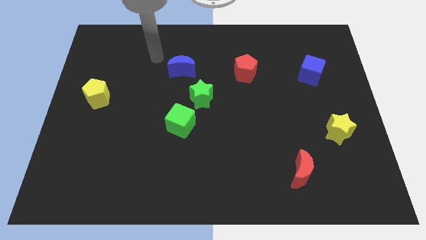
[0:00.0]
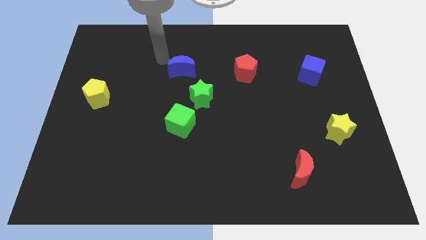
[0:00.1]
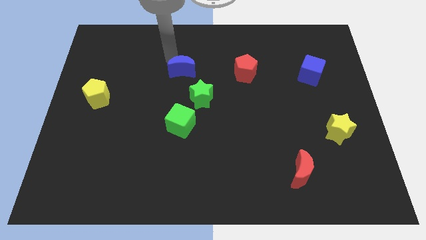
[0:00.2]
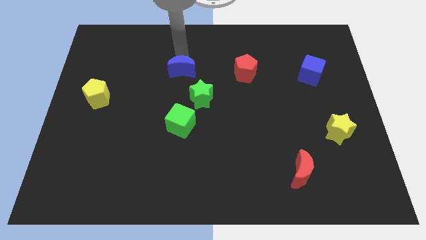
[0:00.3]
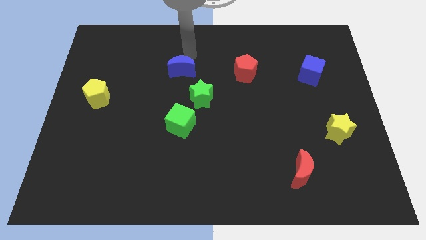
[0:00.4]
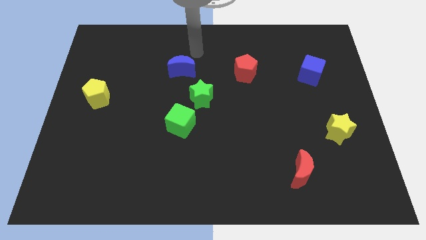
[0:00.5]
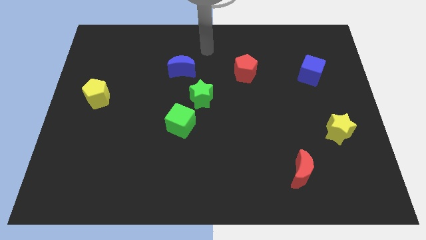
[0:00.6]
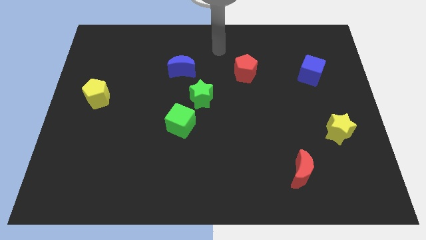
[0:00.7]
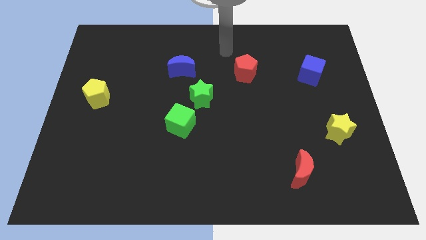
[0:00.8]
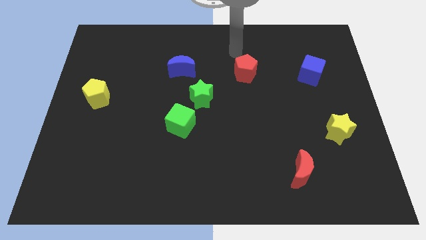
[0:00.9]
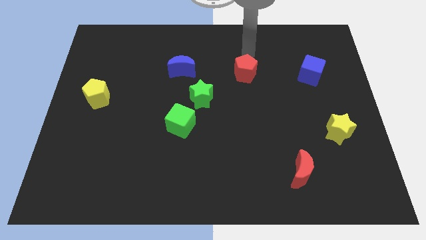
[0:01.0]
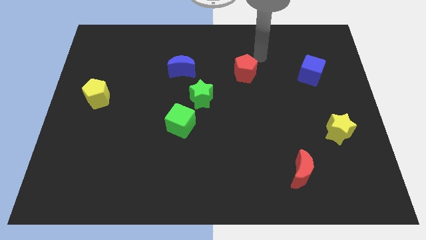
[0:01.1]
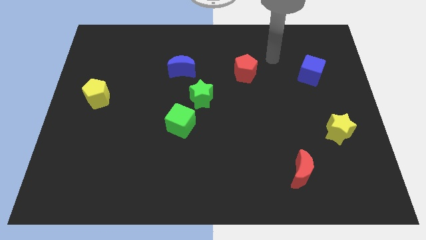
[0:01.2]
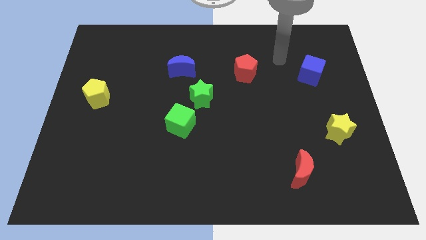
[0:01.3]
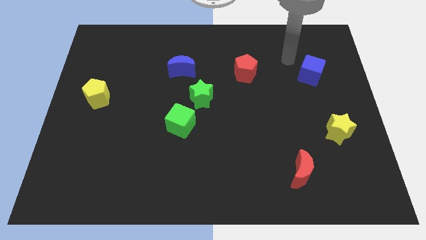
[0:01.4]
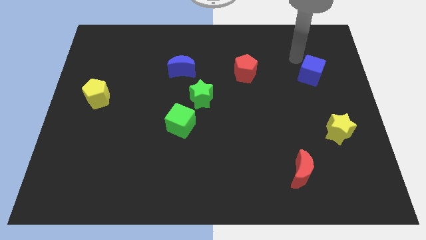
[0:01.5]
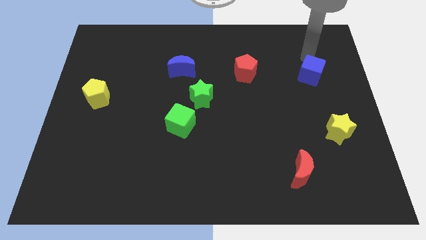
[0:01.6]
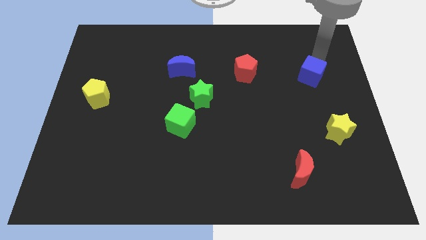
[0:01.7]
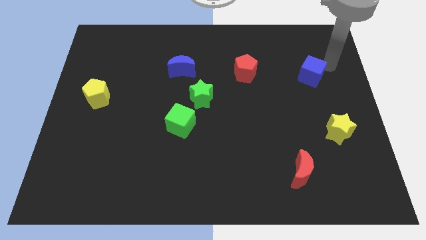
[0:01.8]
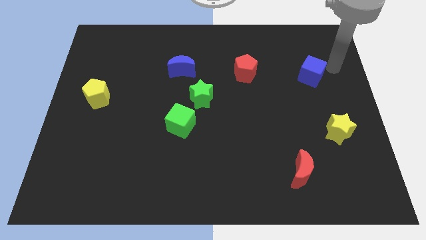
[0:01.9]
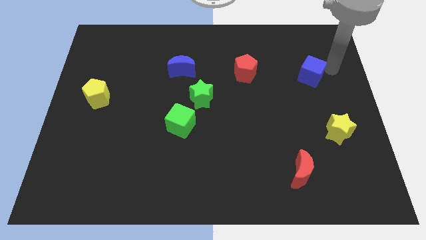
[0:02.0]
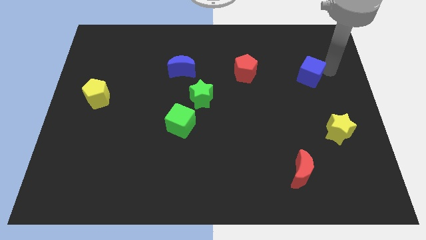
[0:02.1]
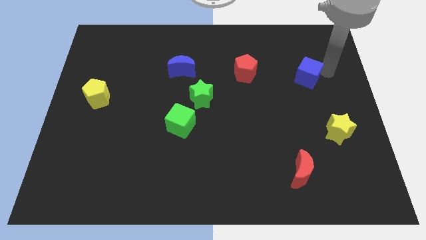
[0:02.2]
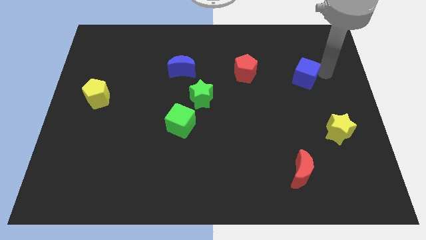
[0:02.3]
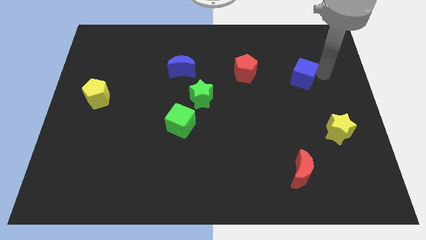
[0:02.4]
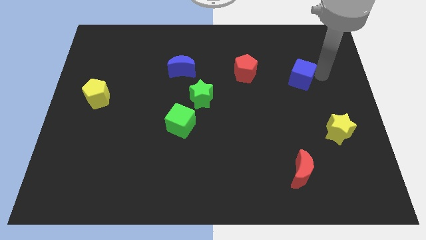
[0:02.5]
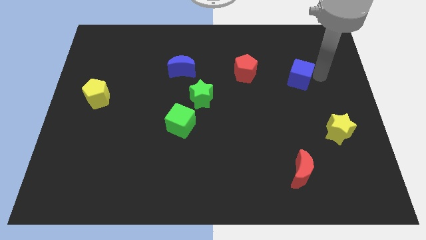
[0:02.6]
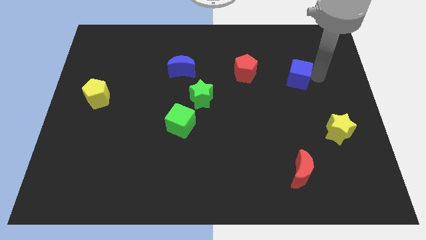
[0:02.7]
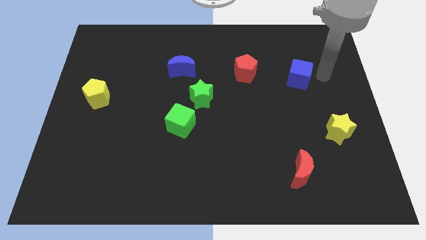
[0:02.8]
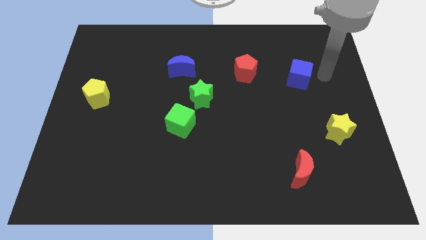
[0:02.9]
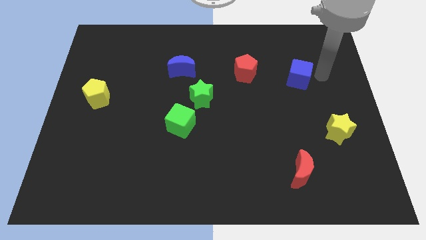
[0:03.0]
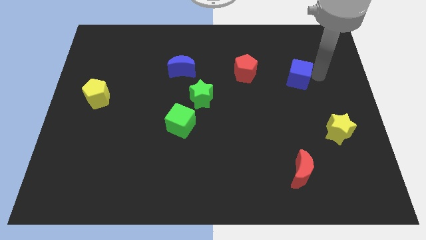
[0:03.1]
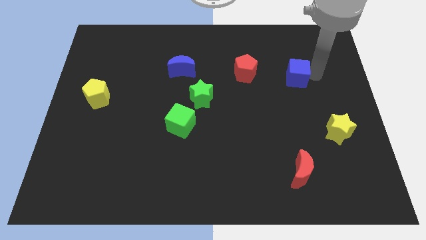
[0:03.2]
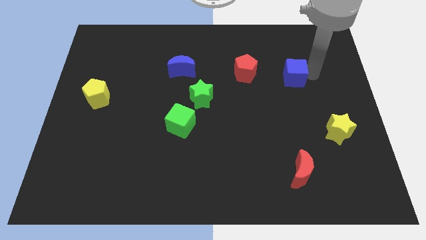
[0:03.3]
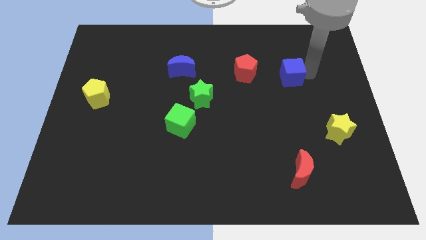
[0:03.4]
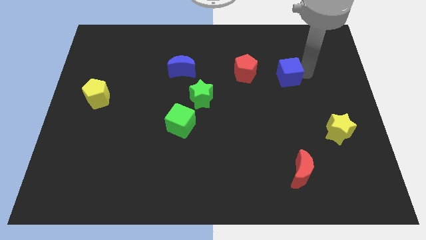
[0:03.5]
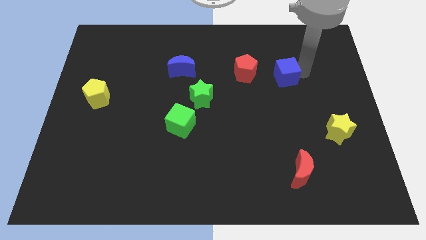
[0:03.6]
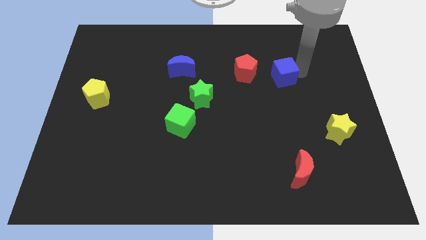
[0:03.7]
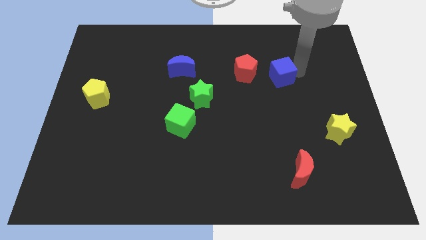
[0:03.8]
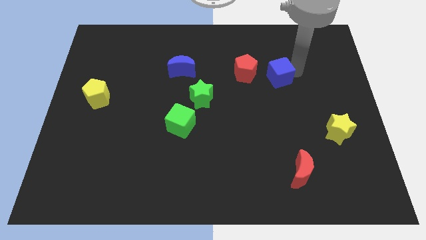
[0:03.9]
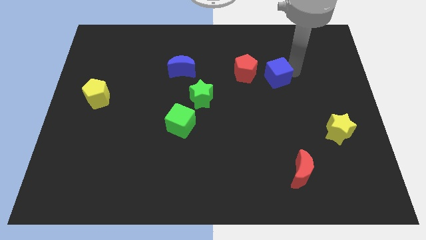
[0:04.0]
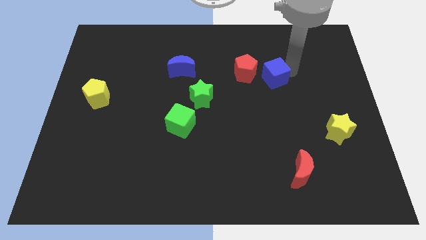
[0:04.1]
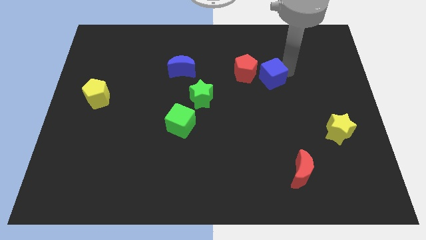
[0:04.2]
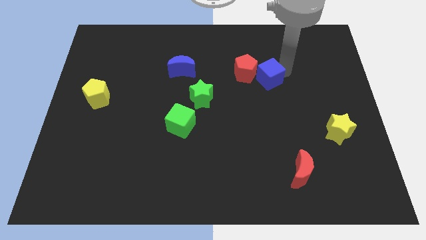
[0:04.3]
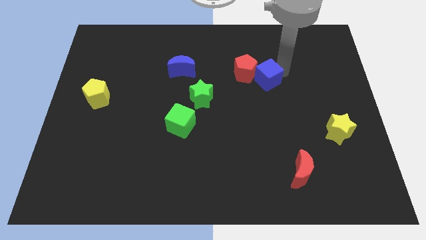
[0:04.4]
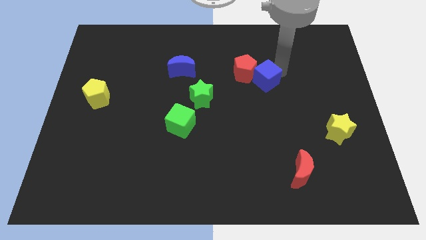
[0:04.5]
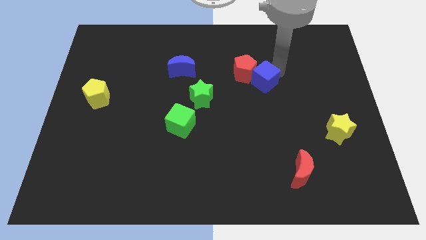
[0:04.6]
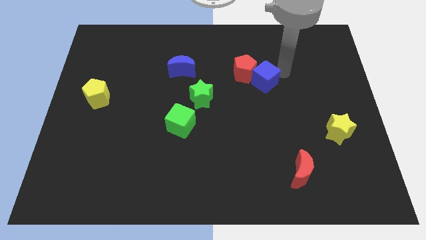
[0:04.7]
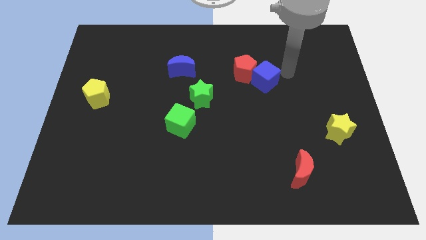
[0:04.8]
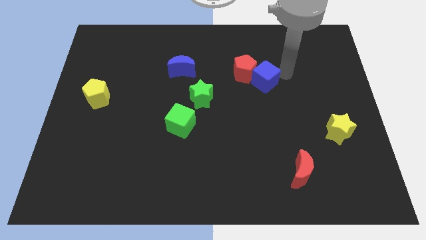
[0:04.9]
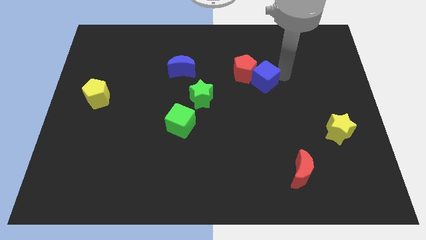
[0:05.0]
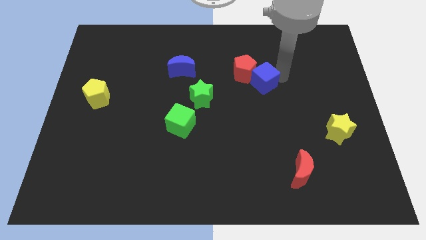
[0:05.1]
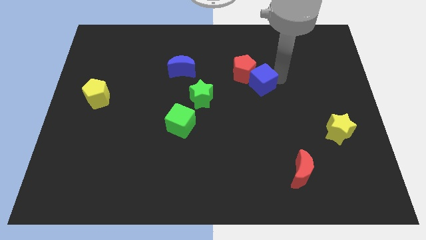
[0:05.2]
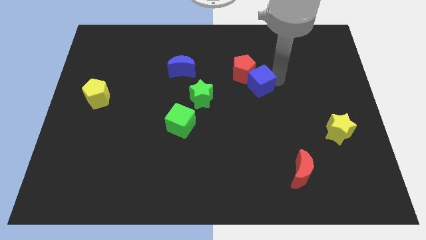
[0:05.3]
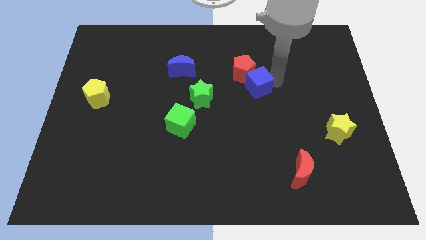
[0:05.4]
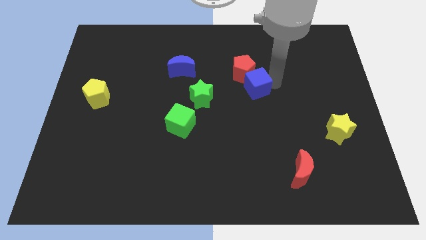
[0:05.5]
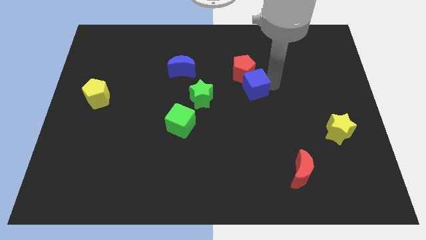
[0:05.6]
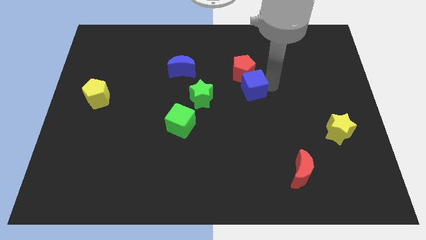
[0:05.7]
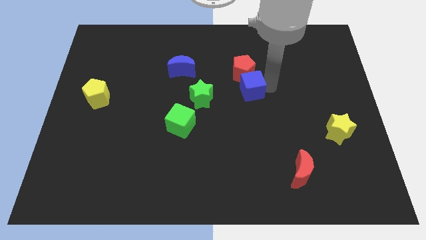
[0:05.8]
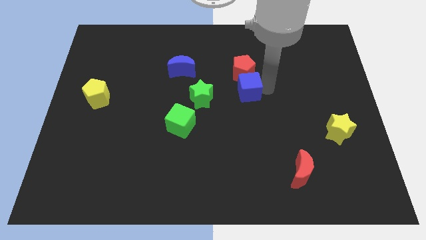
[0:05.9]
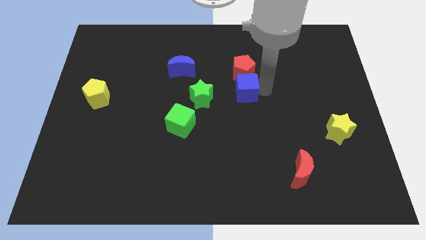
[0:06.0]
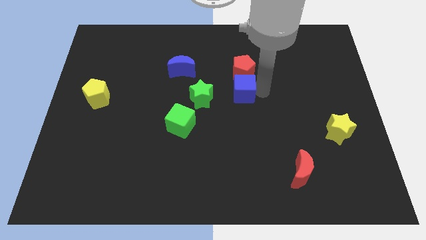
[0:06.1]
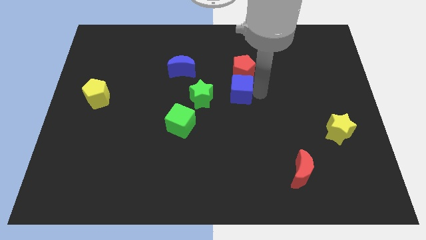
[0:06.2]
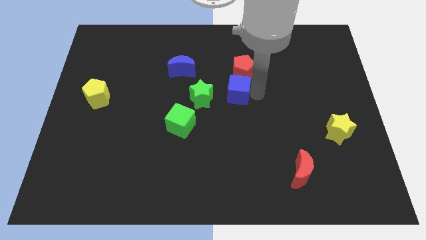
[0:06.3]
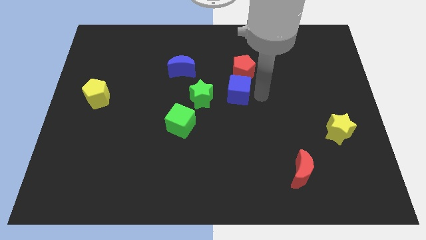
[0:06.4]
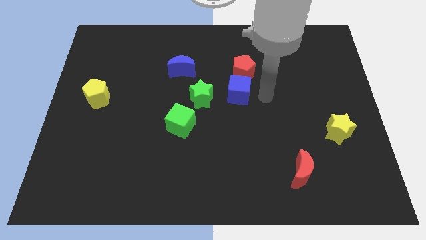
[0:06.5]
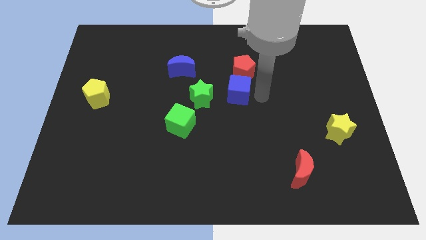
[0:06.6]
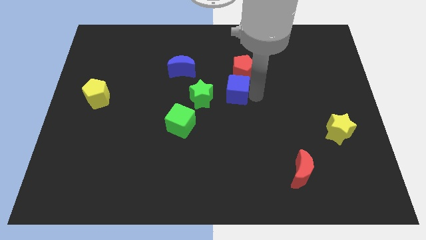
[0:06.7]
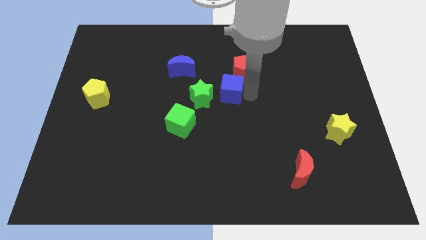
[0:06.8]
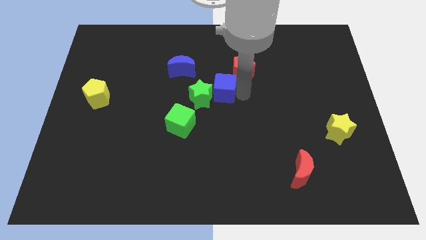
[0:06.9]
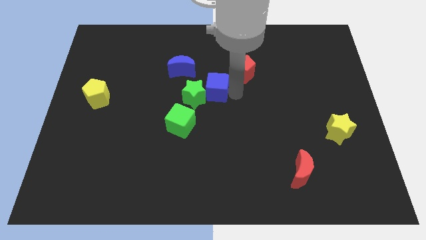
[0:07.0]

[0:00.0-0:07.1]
slide the blue cube to the bottom right of the blue moon
